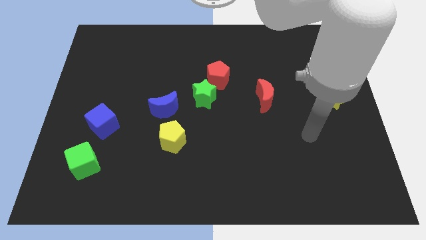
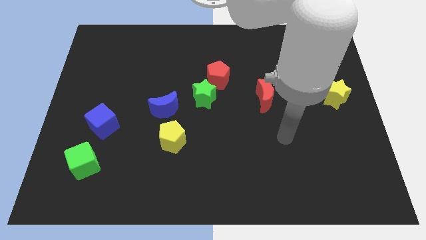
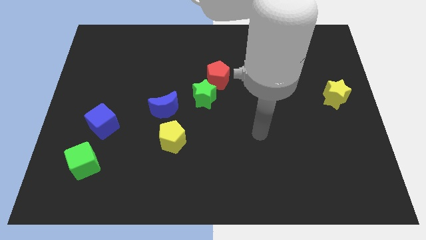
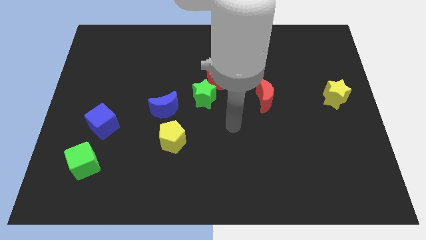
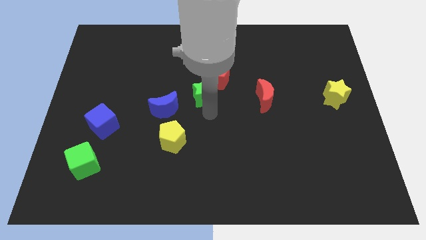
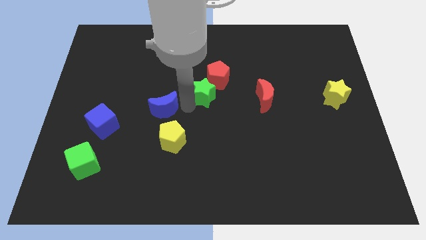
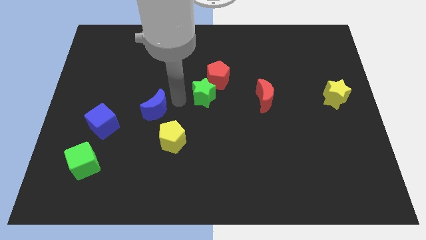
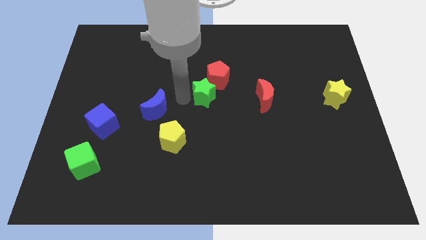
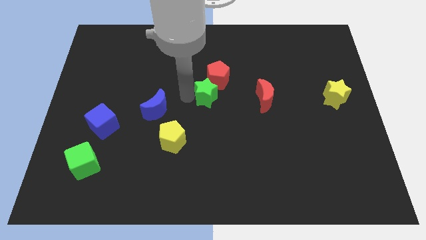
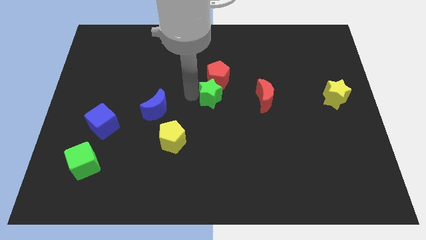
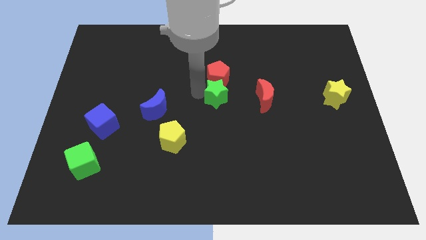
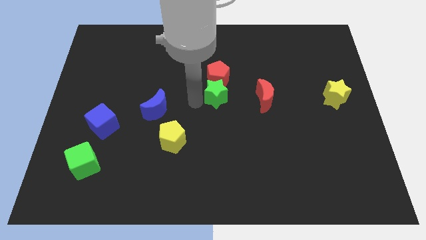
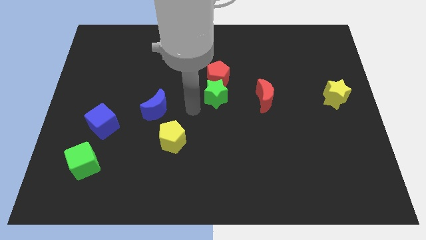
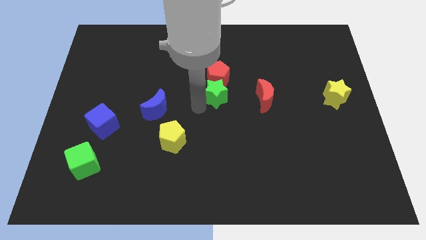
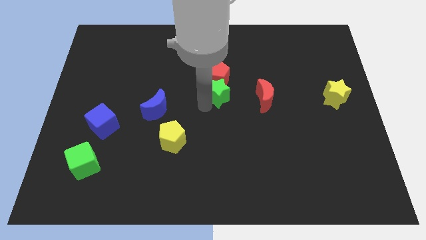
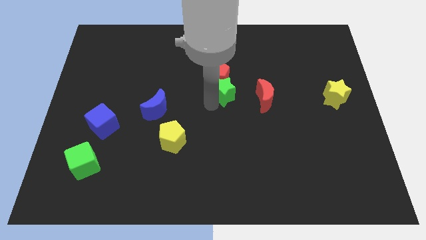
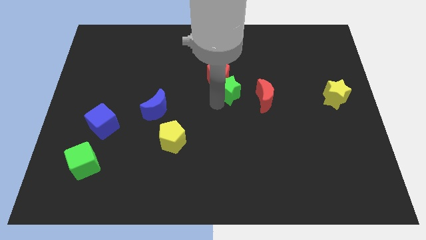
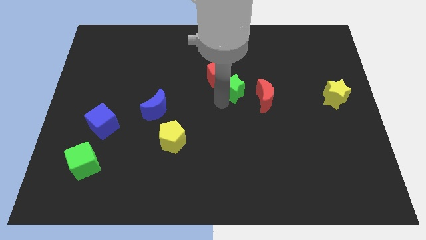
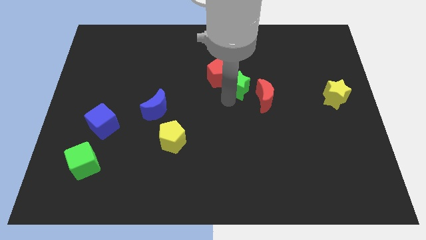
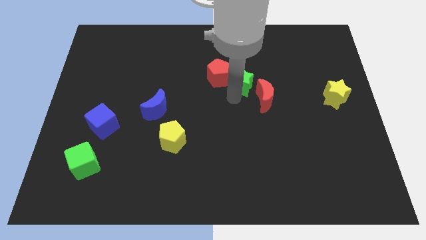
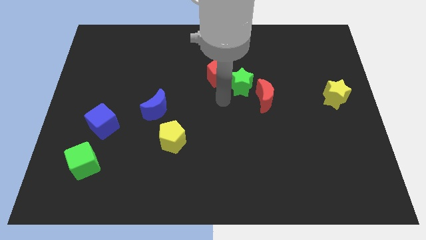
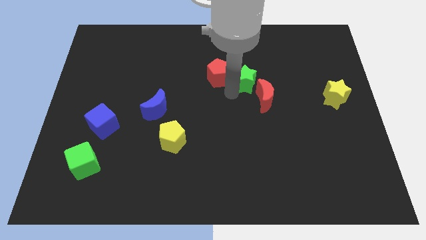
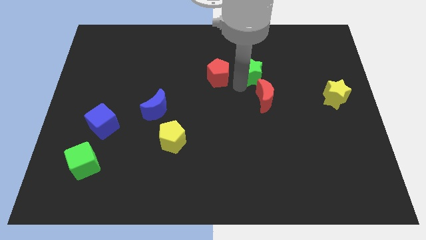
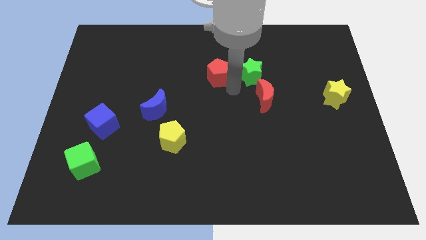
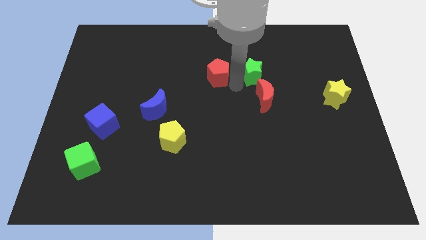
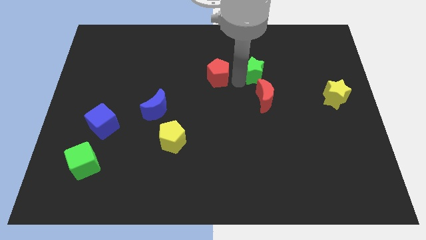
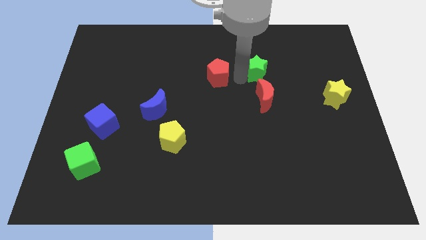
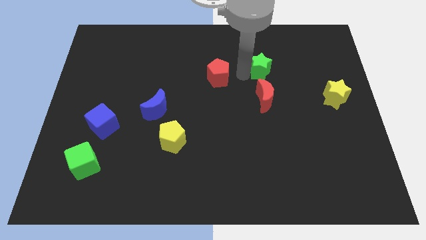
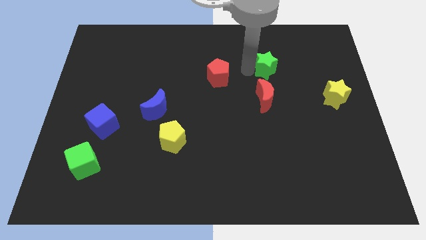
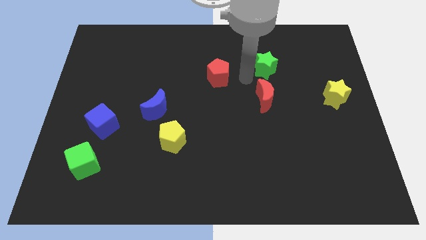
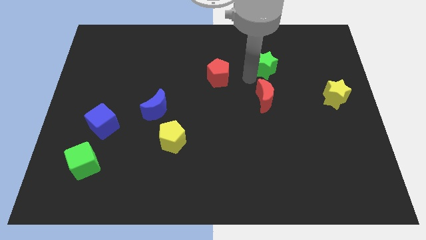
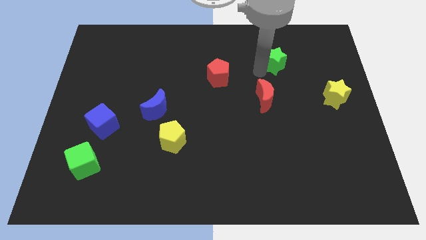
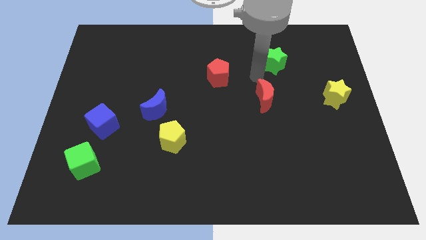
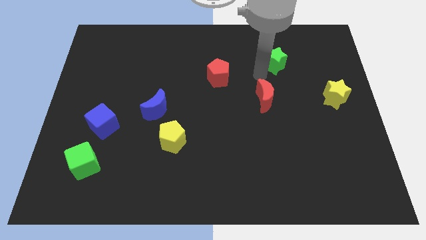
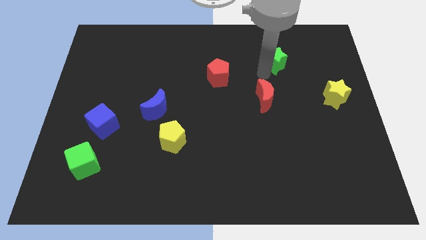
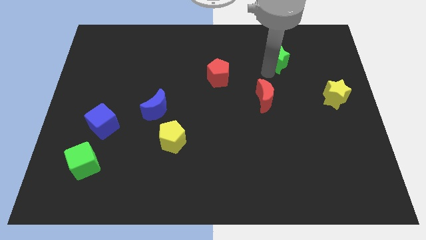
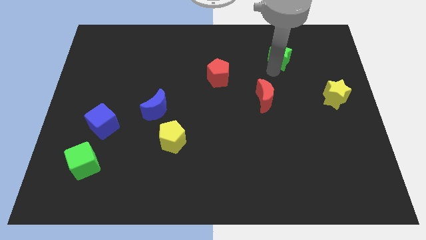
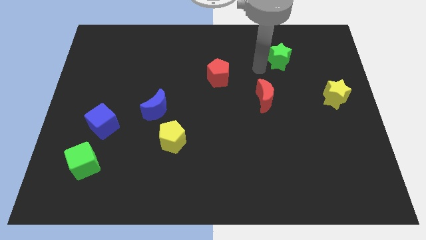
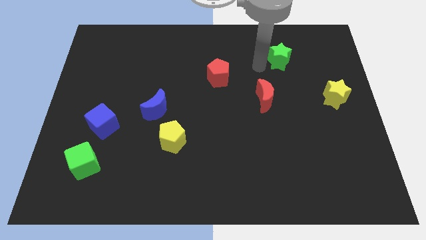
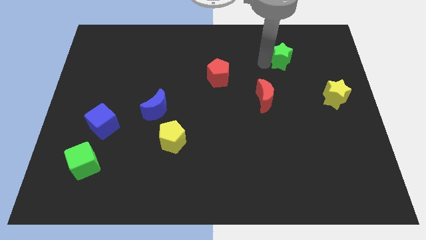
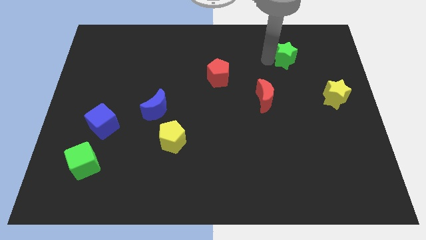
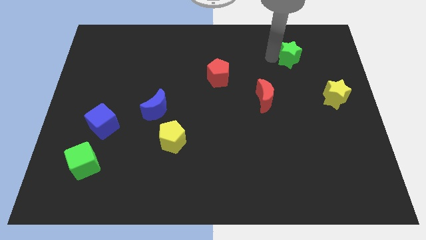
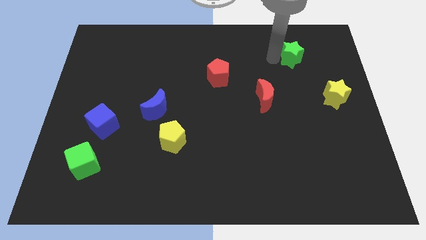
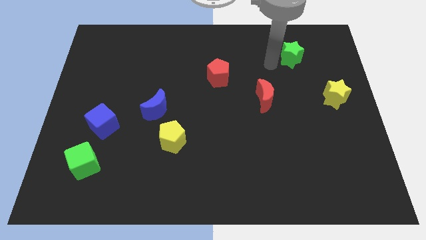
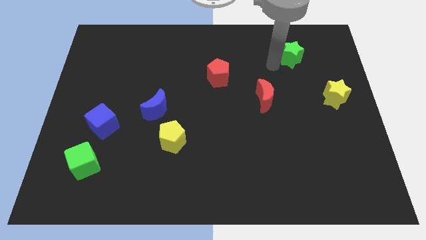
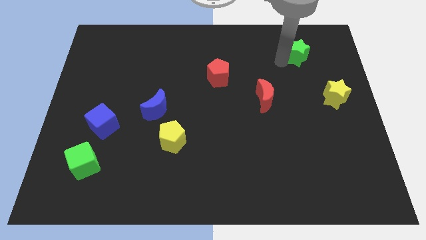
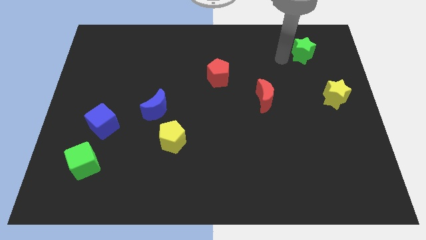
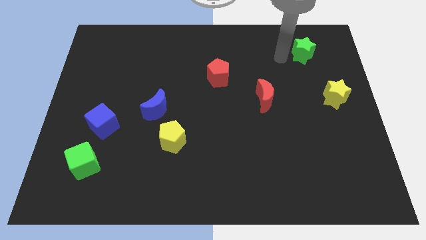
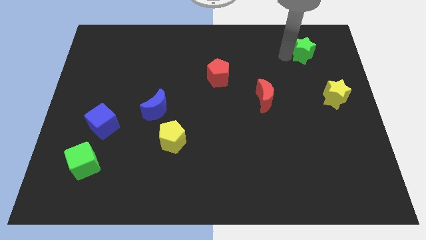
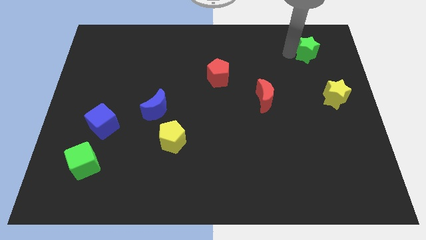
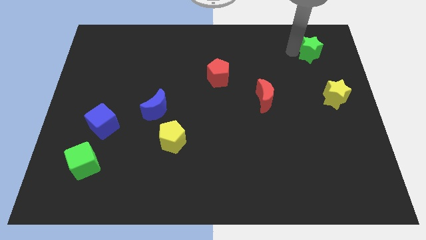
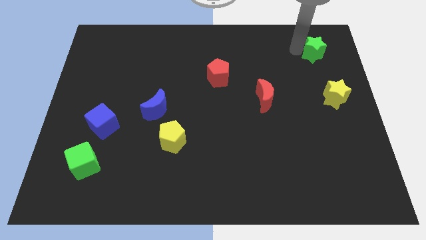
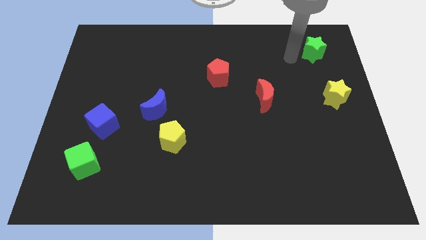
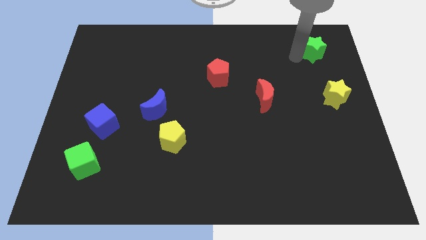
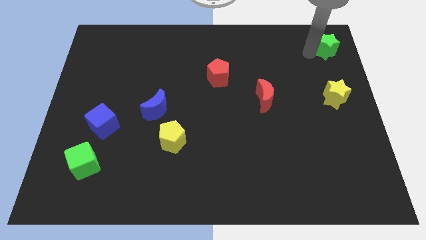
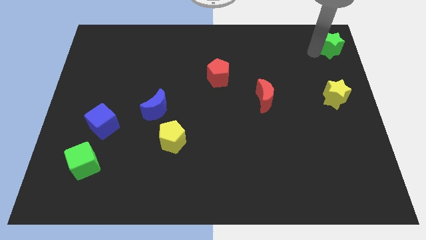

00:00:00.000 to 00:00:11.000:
move the green star to the top right

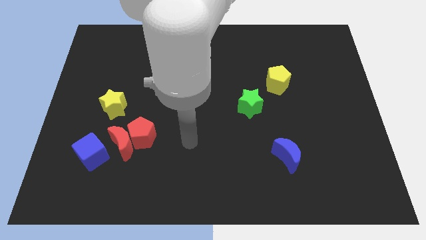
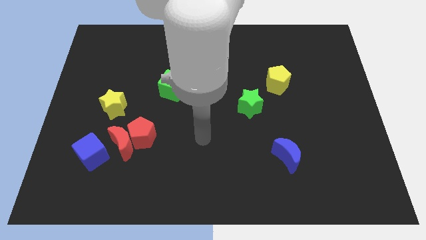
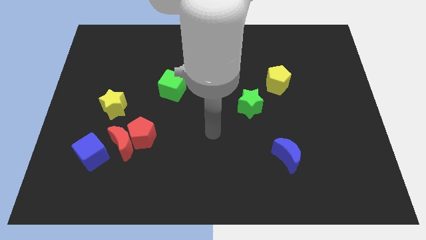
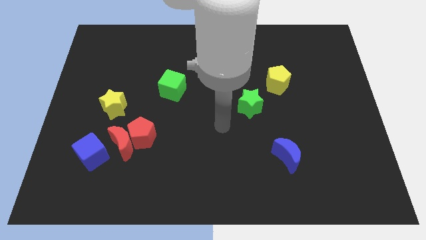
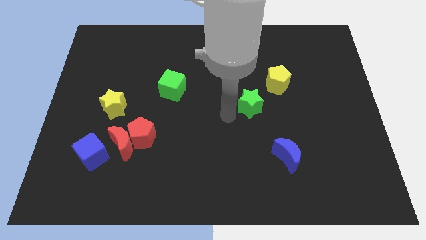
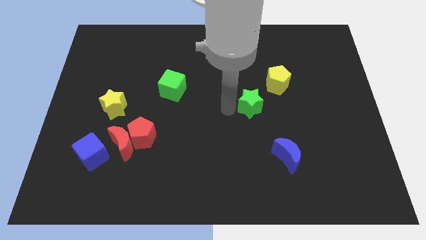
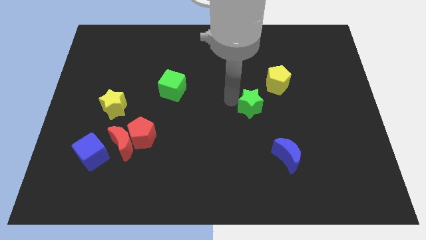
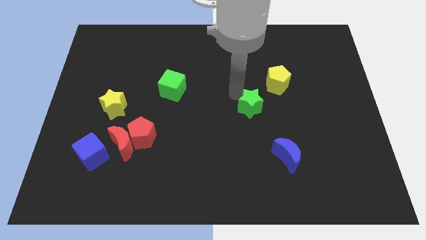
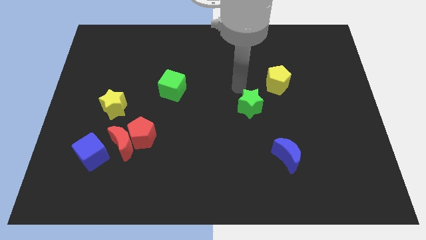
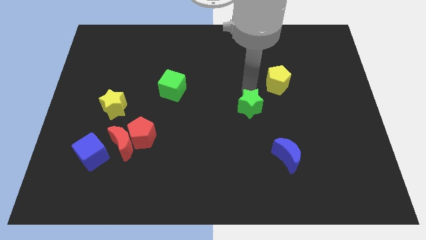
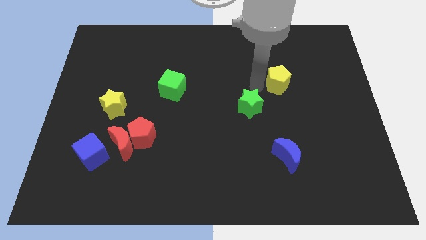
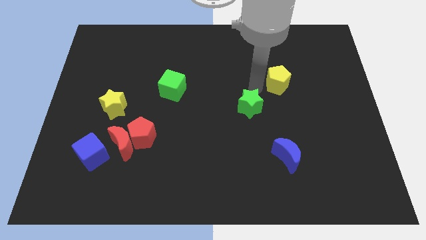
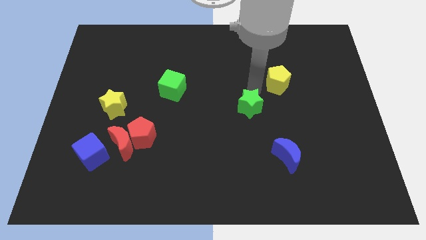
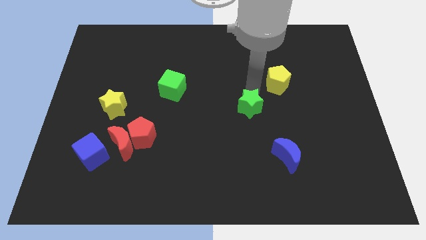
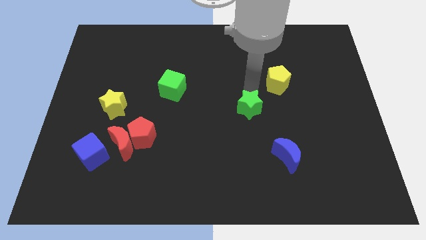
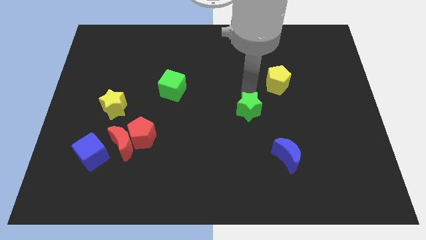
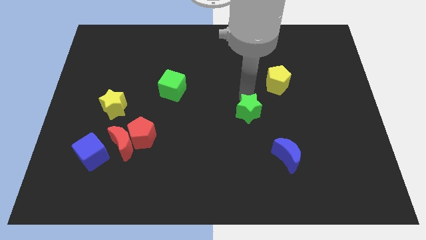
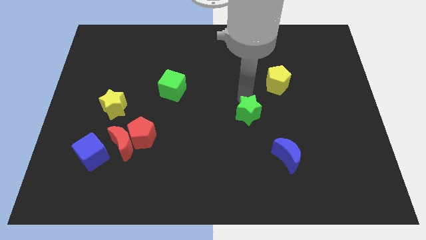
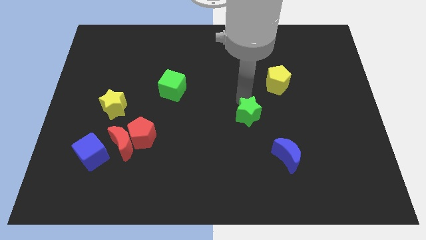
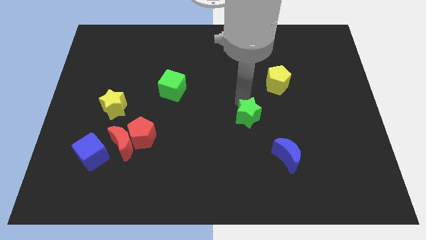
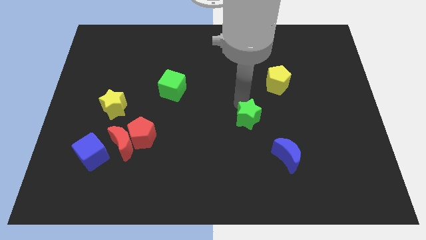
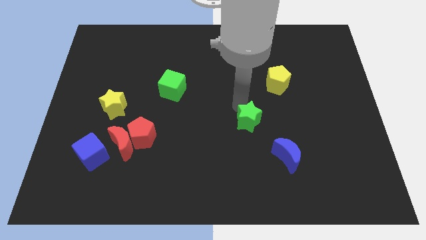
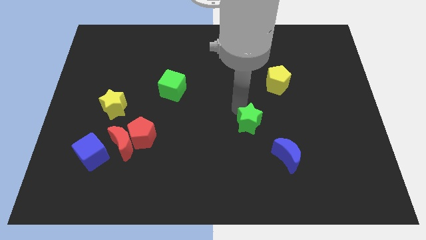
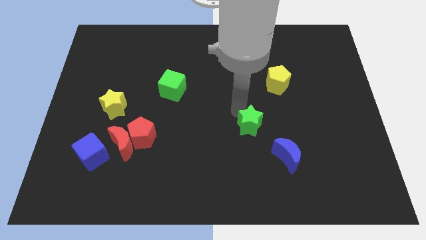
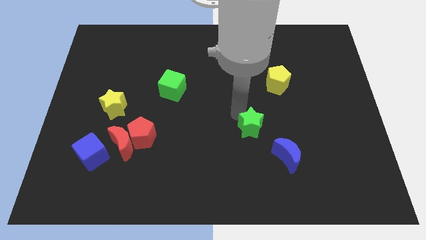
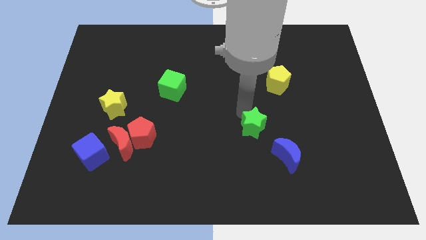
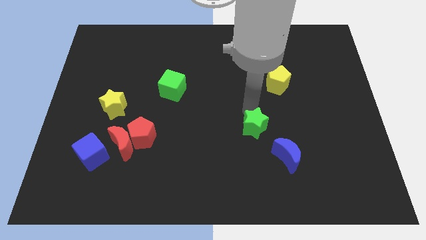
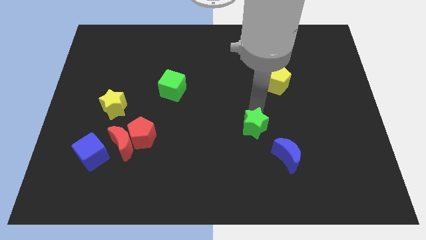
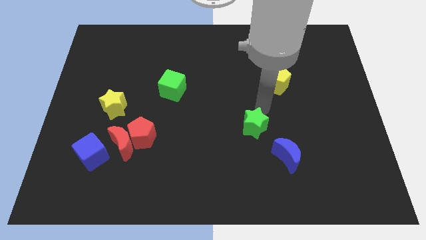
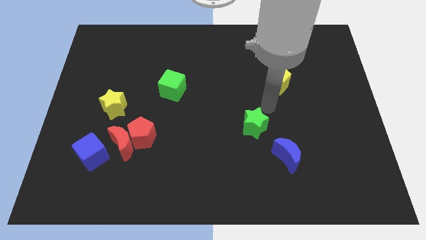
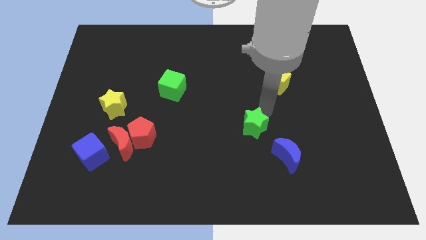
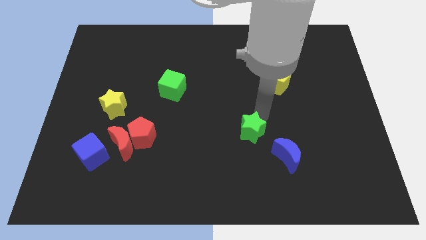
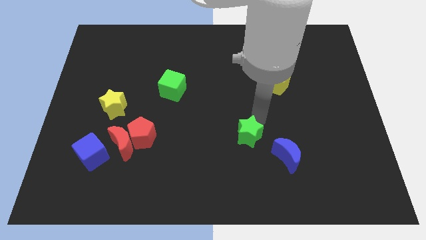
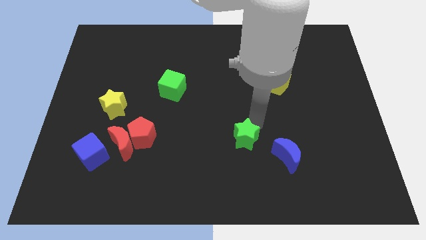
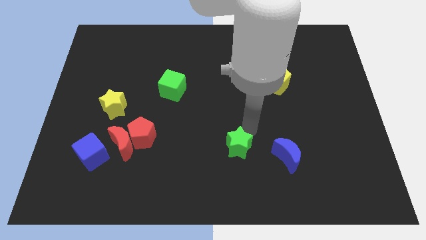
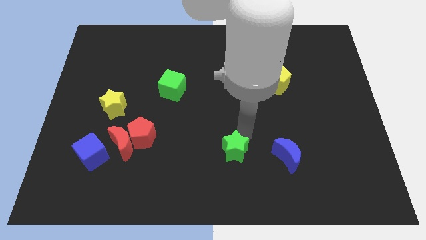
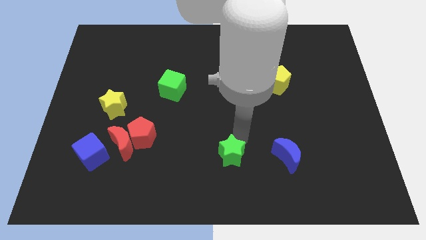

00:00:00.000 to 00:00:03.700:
move the green star to the bottom
